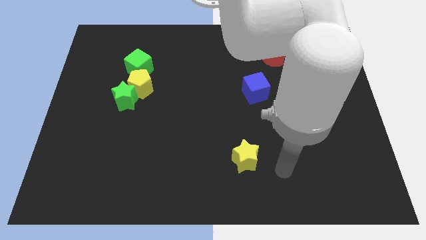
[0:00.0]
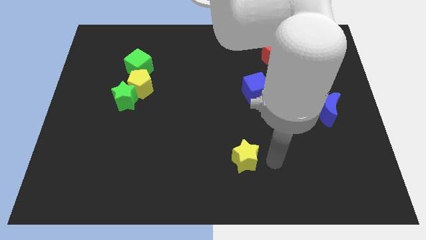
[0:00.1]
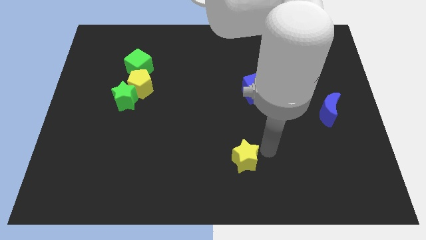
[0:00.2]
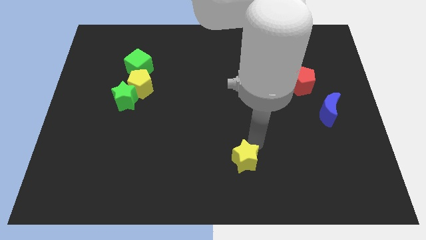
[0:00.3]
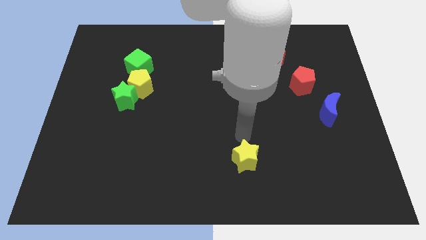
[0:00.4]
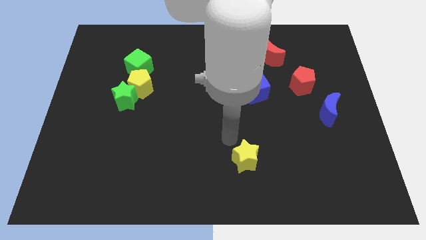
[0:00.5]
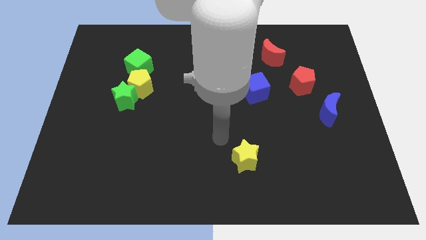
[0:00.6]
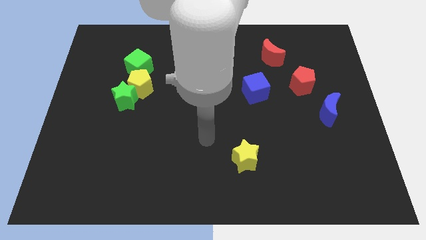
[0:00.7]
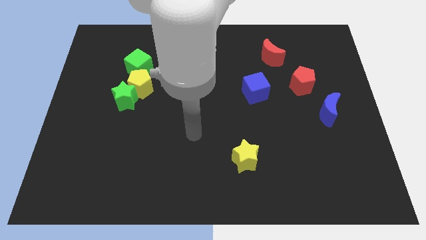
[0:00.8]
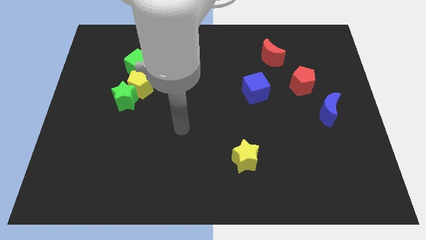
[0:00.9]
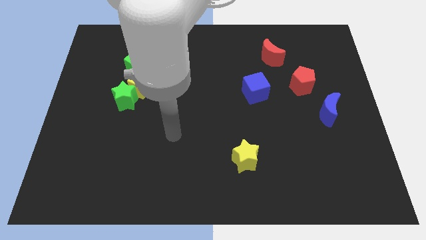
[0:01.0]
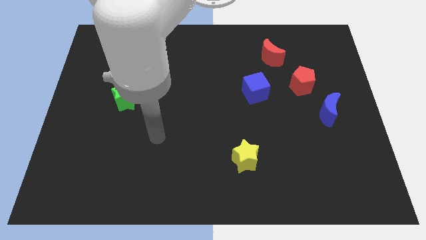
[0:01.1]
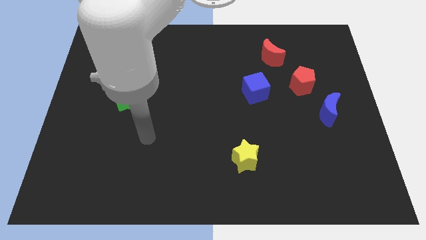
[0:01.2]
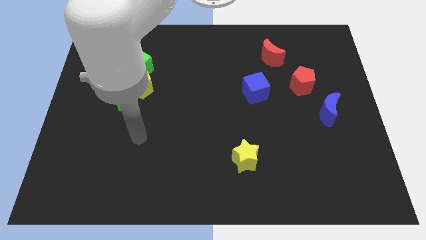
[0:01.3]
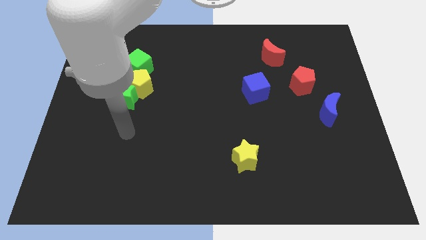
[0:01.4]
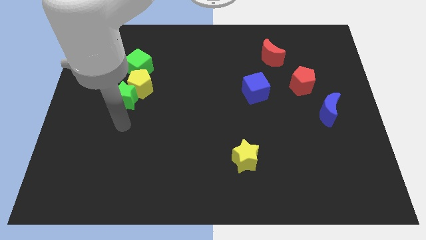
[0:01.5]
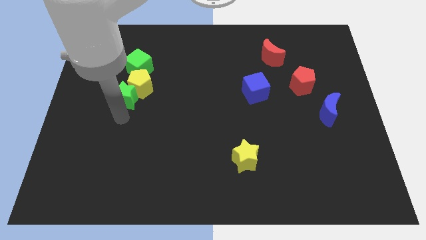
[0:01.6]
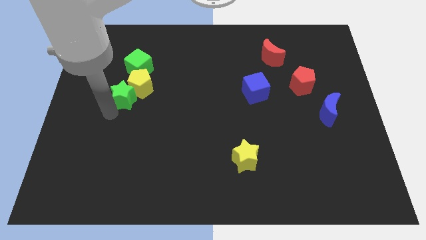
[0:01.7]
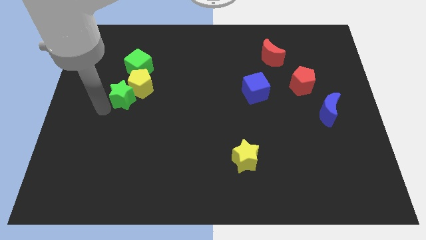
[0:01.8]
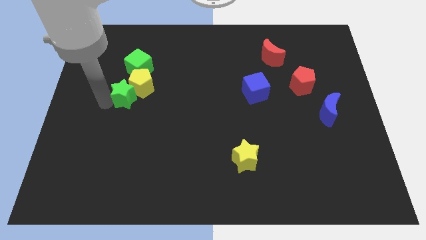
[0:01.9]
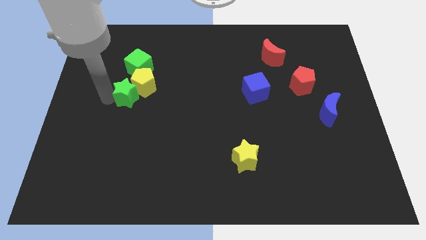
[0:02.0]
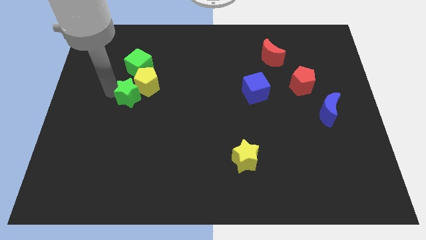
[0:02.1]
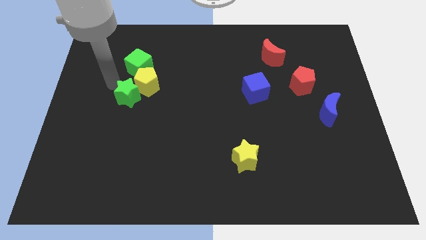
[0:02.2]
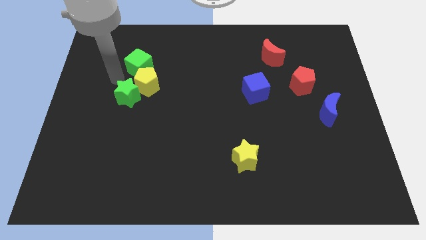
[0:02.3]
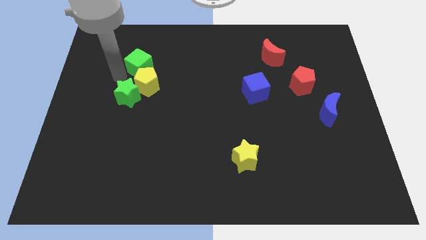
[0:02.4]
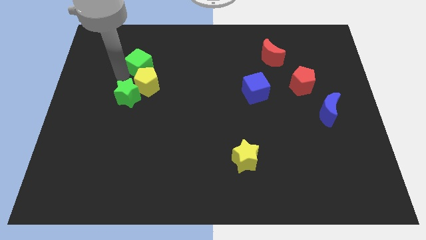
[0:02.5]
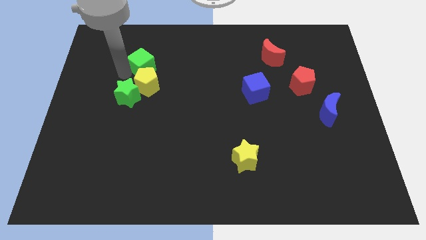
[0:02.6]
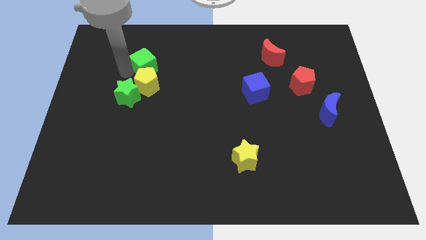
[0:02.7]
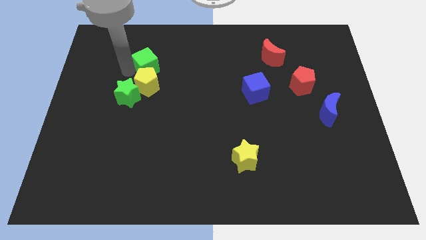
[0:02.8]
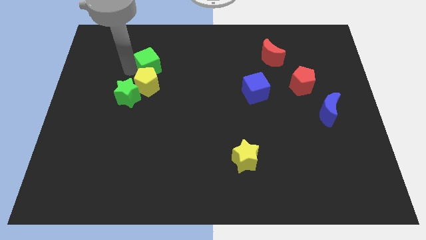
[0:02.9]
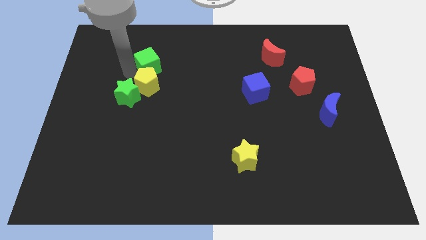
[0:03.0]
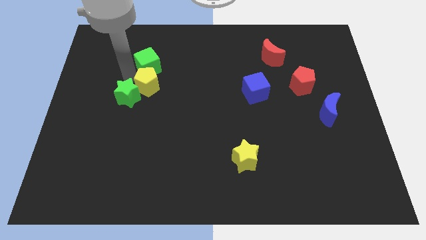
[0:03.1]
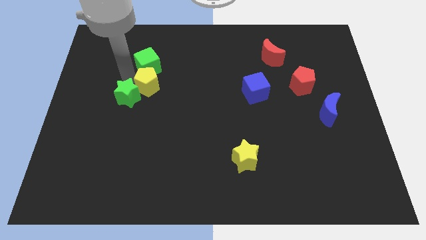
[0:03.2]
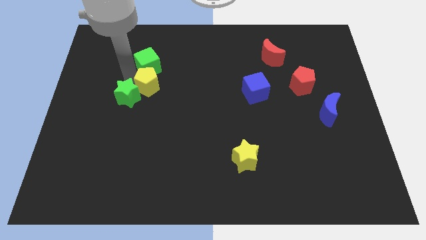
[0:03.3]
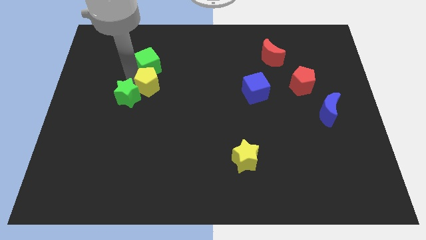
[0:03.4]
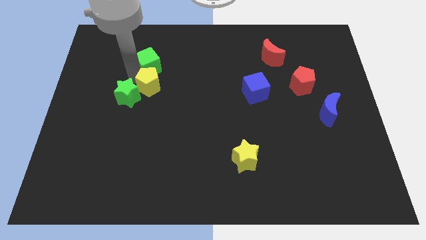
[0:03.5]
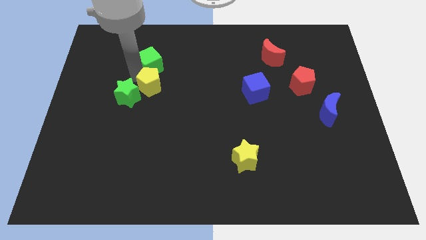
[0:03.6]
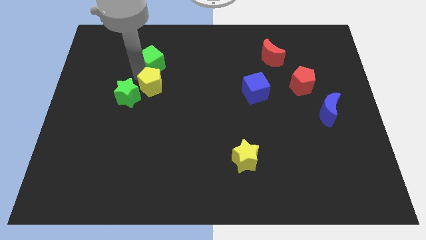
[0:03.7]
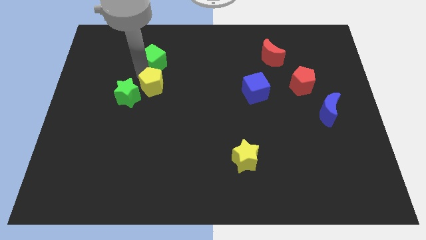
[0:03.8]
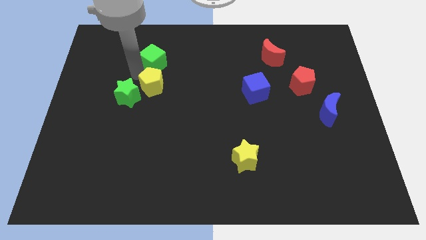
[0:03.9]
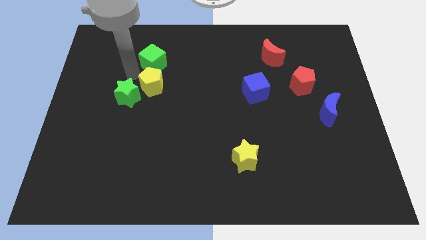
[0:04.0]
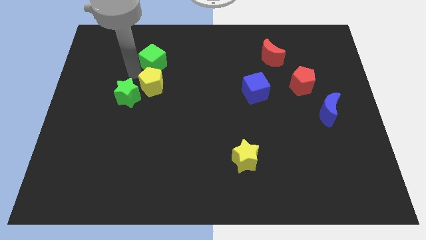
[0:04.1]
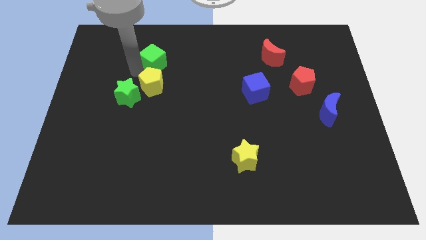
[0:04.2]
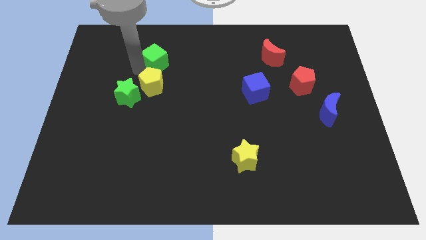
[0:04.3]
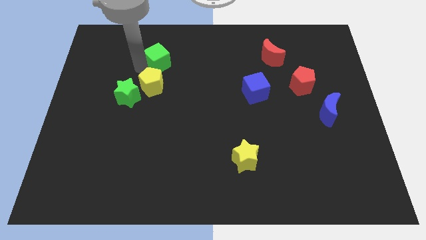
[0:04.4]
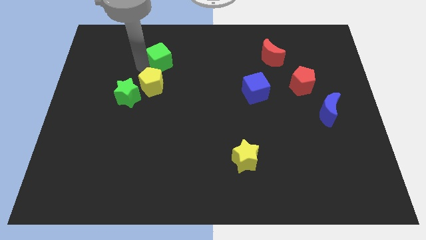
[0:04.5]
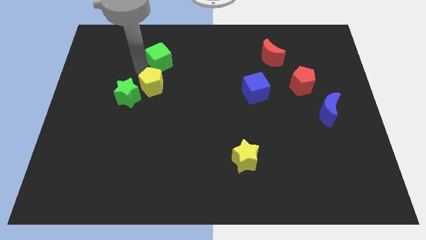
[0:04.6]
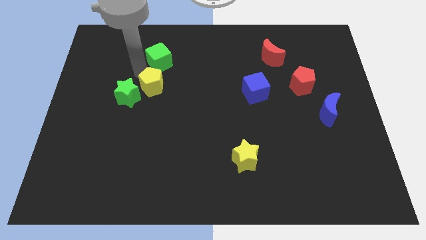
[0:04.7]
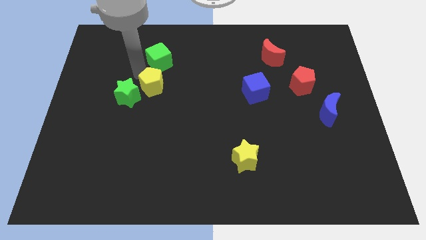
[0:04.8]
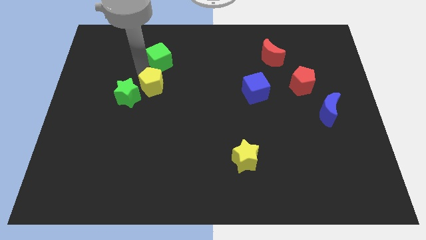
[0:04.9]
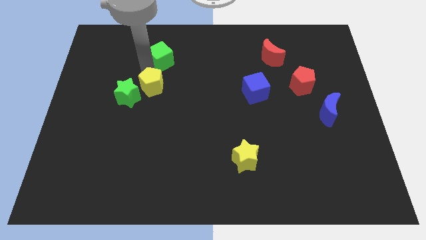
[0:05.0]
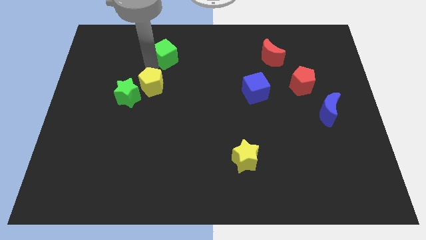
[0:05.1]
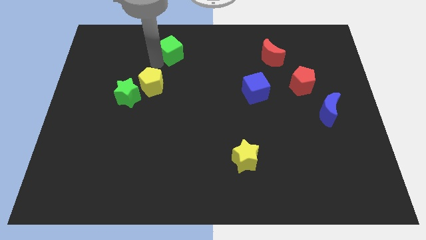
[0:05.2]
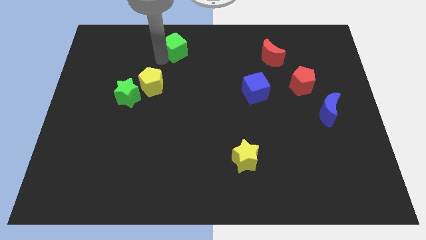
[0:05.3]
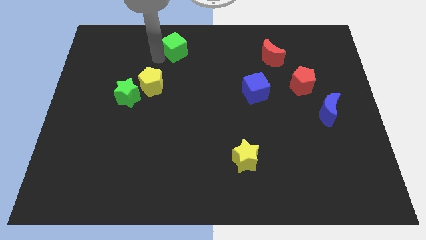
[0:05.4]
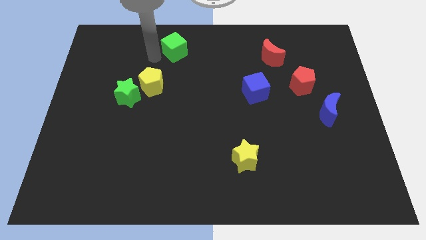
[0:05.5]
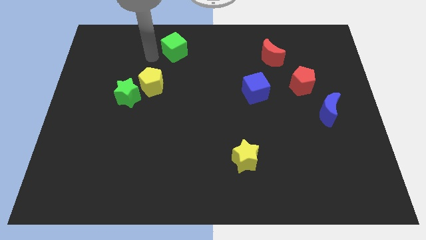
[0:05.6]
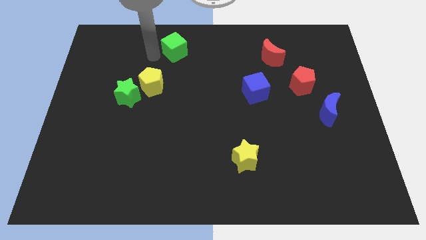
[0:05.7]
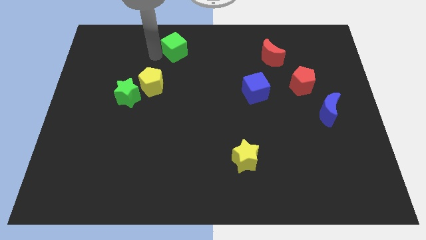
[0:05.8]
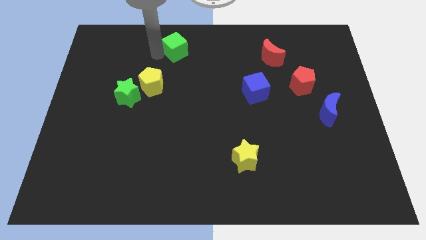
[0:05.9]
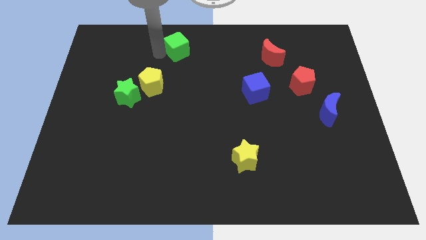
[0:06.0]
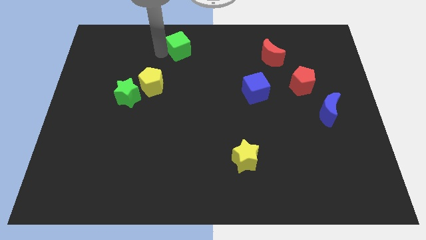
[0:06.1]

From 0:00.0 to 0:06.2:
slide the green cube to the top side

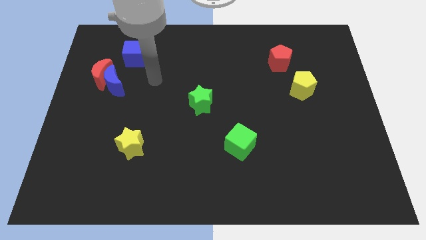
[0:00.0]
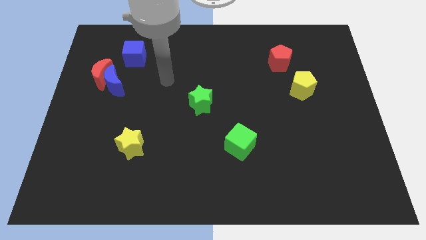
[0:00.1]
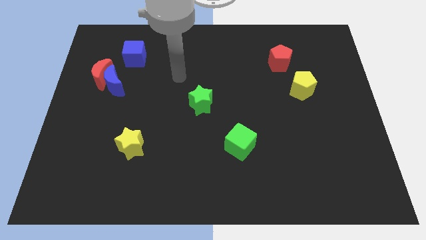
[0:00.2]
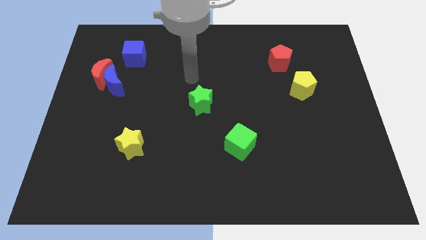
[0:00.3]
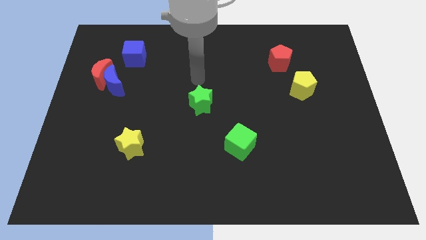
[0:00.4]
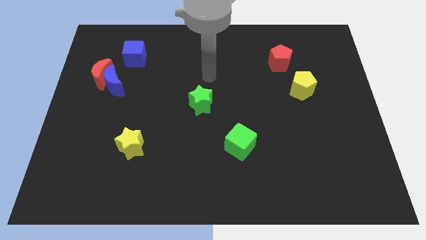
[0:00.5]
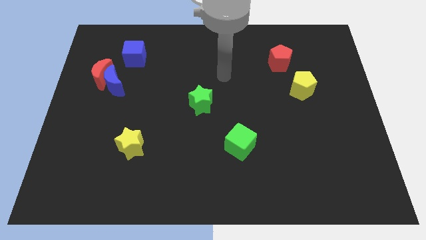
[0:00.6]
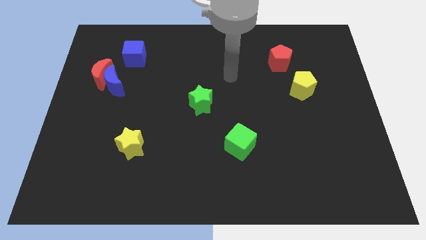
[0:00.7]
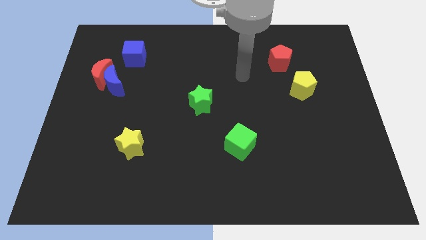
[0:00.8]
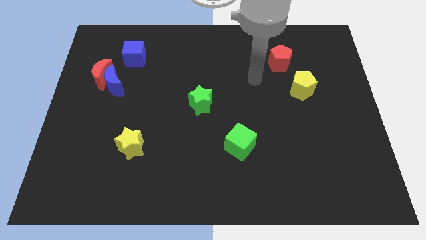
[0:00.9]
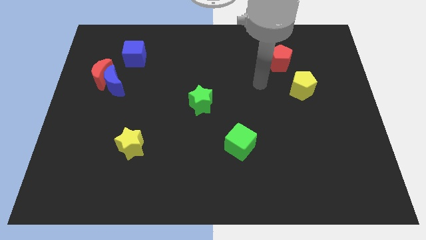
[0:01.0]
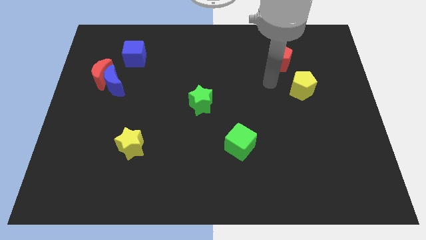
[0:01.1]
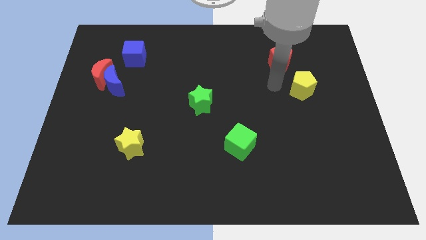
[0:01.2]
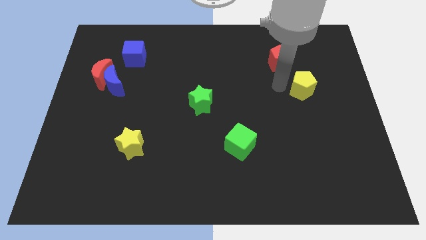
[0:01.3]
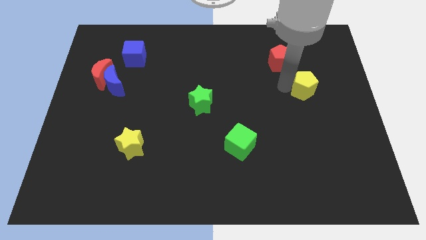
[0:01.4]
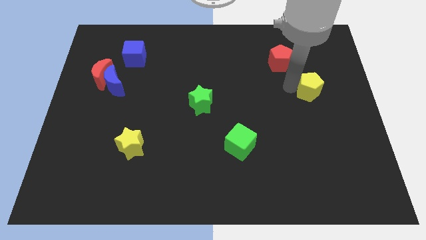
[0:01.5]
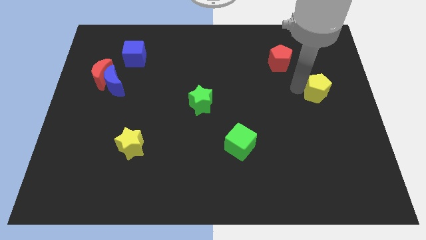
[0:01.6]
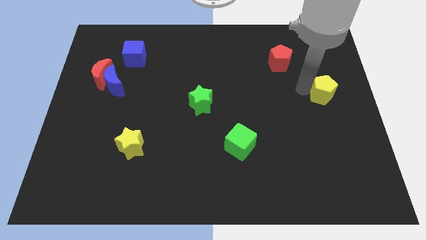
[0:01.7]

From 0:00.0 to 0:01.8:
put the yellow pentagon to the center right
